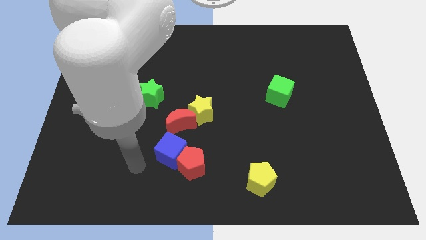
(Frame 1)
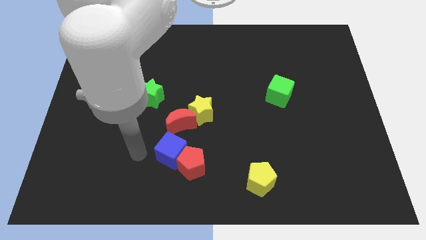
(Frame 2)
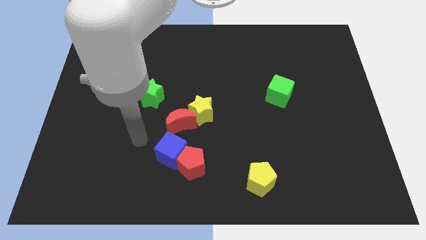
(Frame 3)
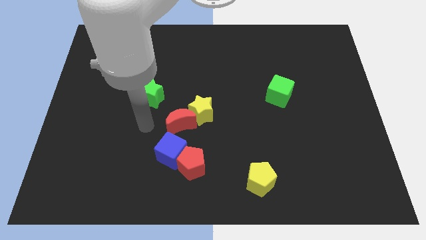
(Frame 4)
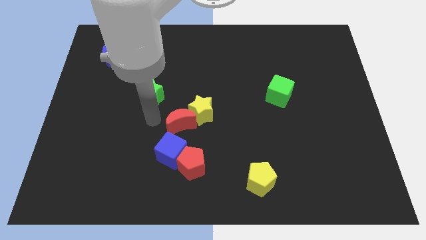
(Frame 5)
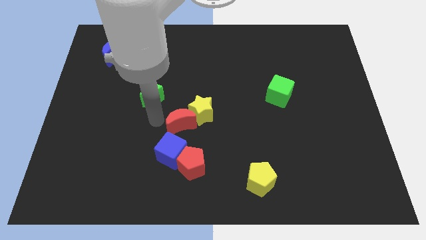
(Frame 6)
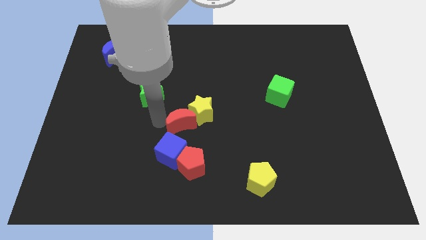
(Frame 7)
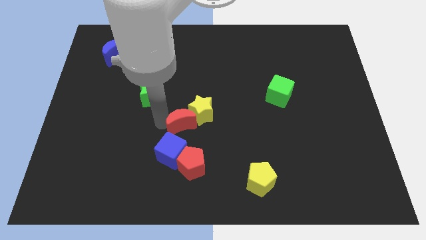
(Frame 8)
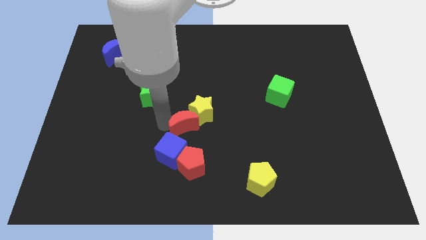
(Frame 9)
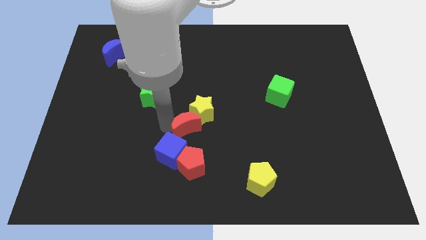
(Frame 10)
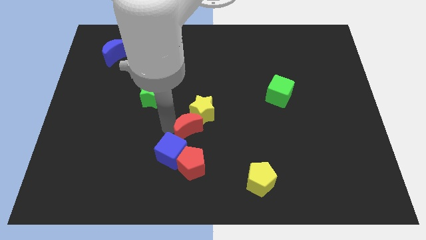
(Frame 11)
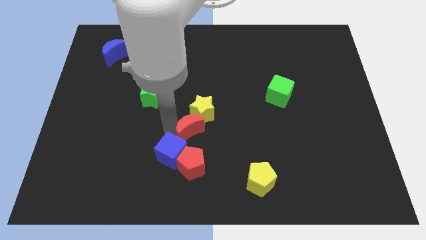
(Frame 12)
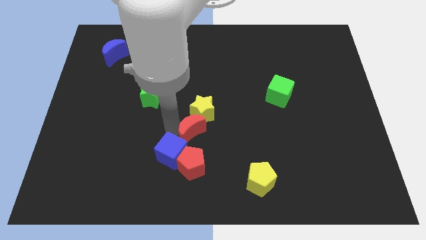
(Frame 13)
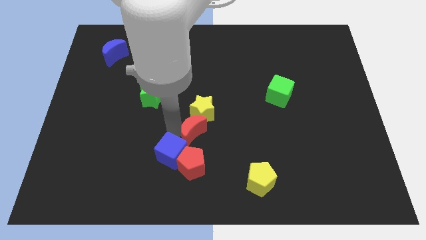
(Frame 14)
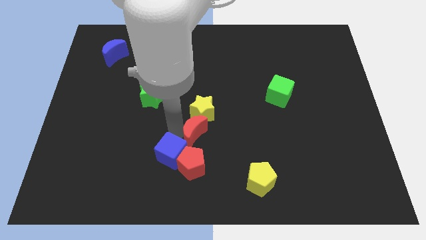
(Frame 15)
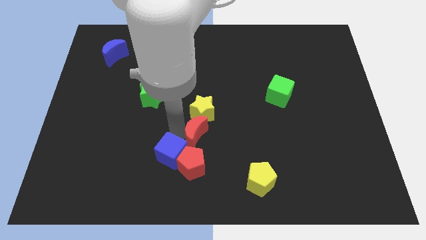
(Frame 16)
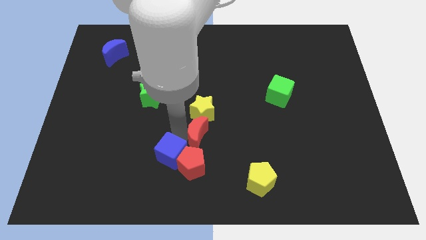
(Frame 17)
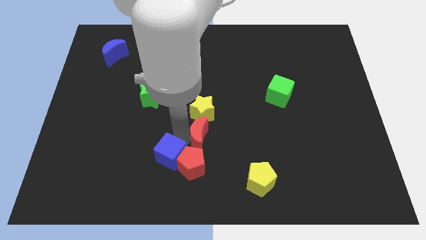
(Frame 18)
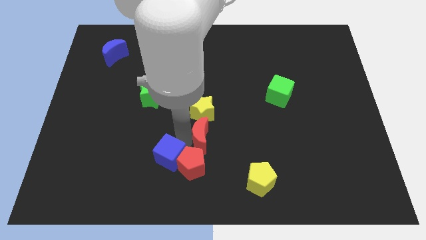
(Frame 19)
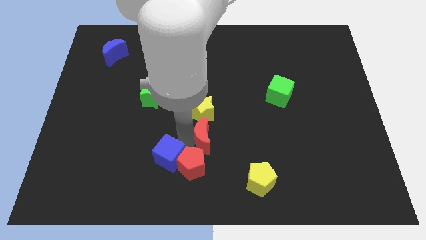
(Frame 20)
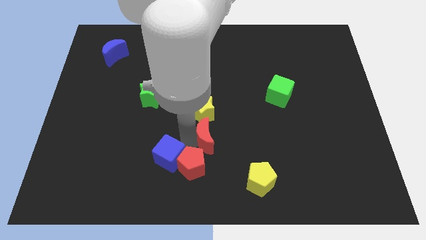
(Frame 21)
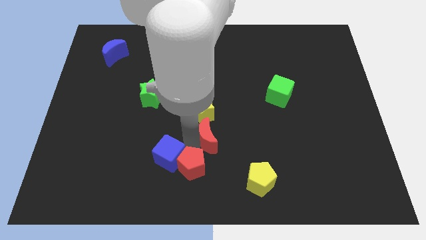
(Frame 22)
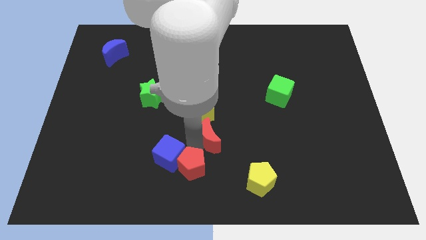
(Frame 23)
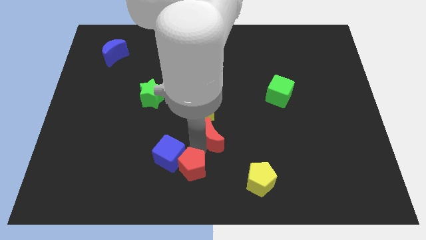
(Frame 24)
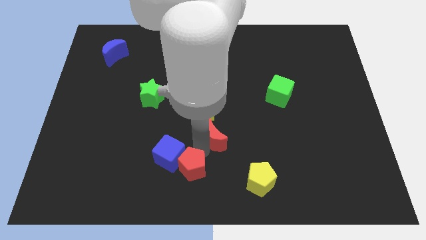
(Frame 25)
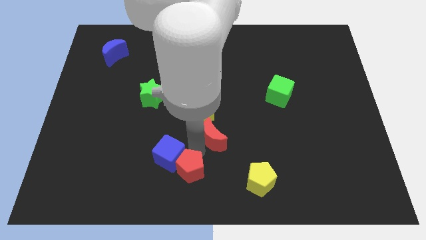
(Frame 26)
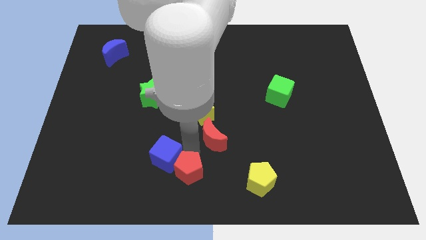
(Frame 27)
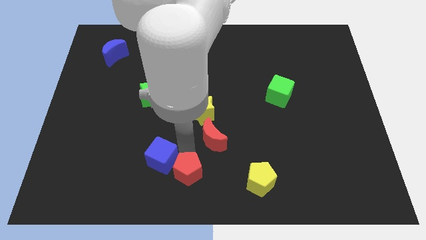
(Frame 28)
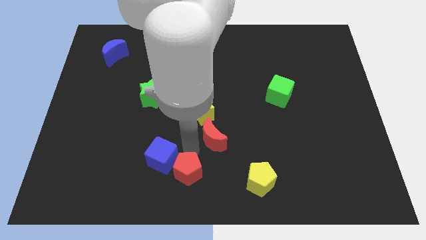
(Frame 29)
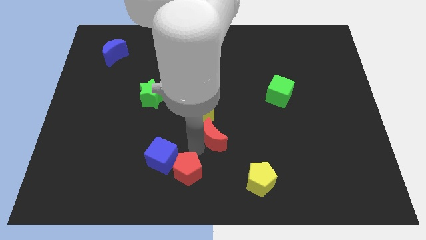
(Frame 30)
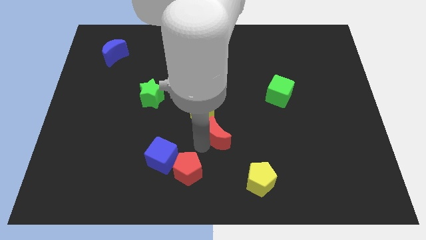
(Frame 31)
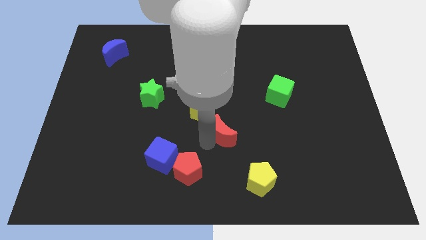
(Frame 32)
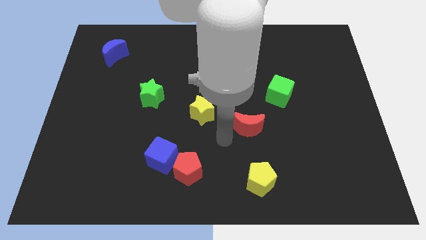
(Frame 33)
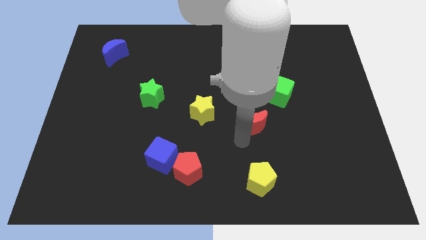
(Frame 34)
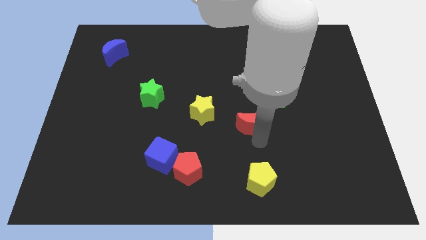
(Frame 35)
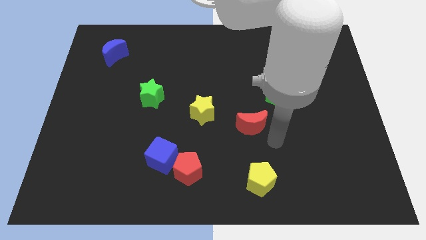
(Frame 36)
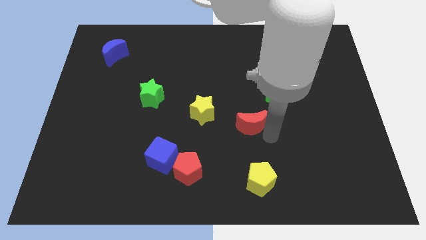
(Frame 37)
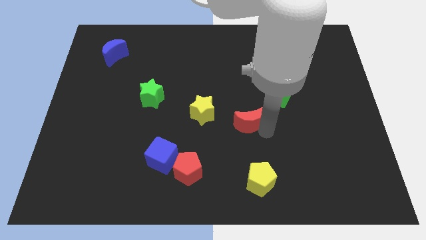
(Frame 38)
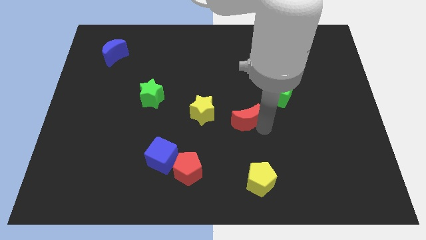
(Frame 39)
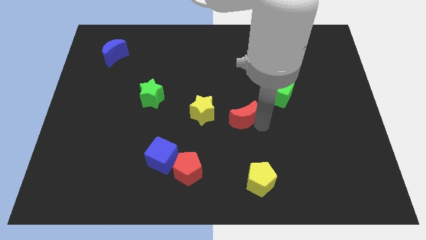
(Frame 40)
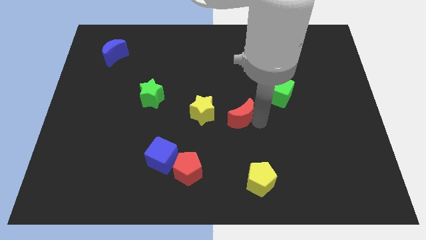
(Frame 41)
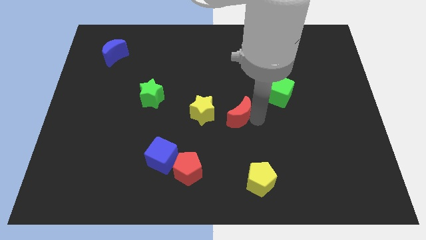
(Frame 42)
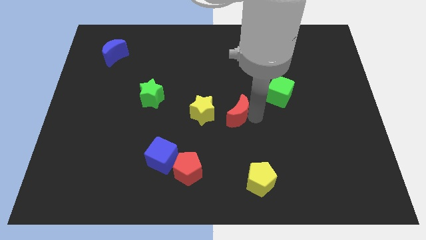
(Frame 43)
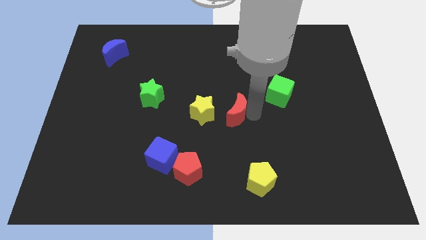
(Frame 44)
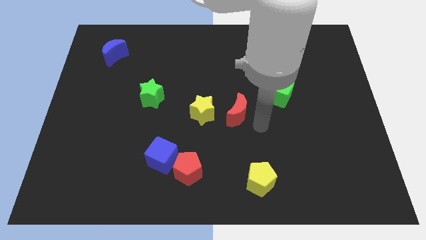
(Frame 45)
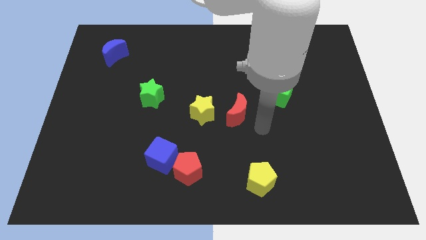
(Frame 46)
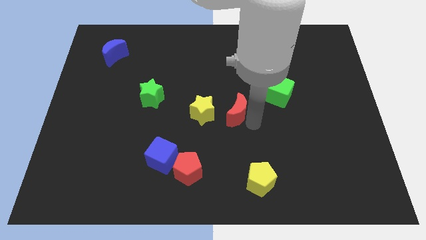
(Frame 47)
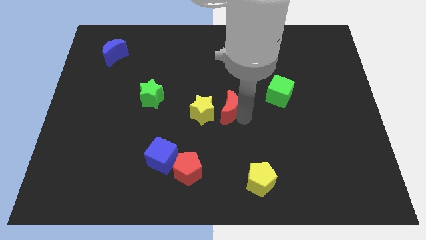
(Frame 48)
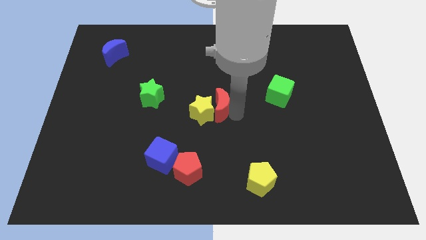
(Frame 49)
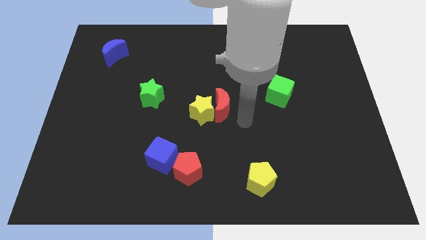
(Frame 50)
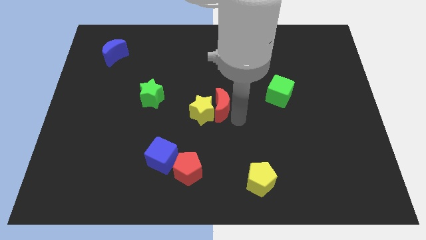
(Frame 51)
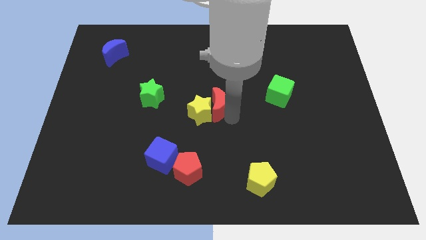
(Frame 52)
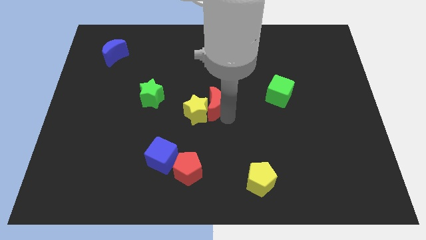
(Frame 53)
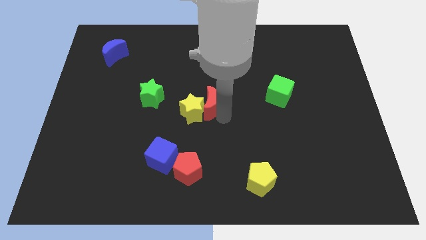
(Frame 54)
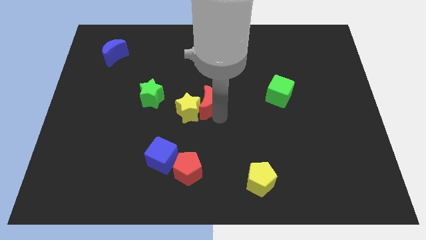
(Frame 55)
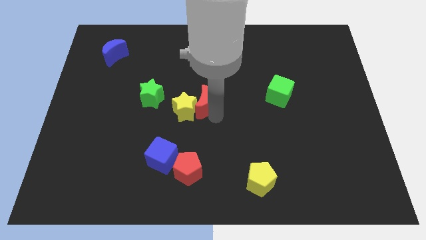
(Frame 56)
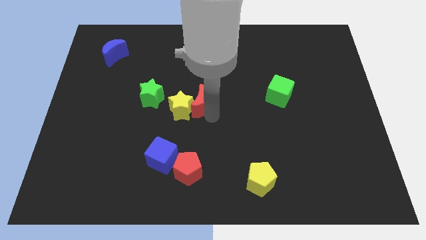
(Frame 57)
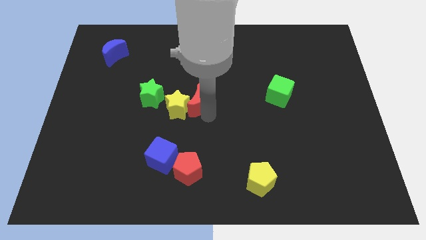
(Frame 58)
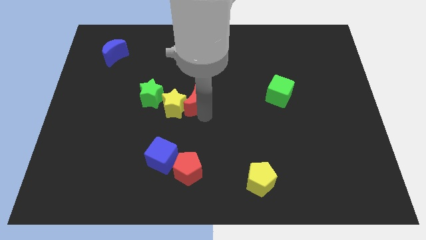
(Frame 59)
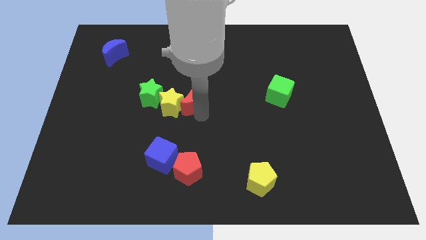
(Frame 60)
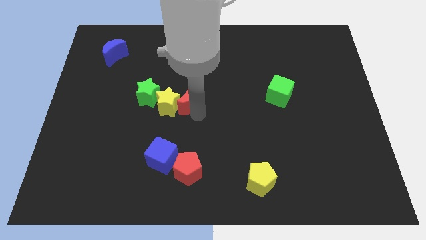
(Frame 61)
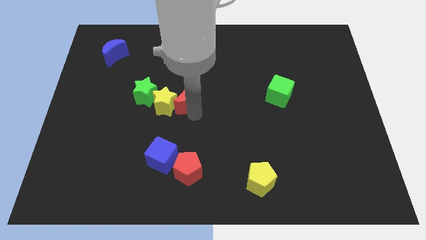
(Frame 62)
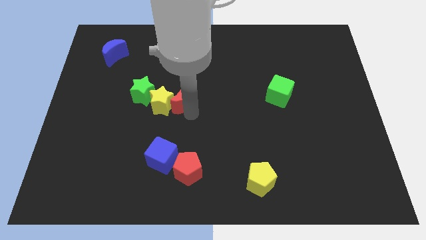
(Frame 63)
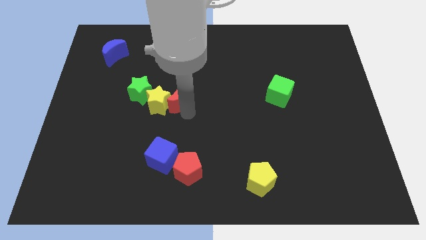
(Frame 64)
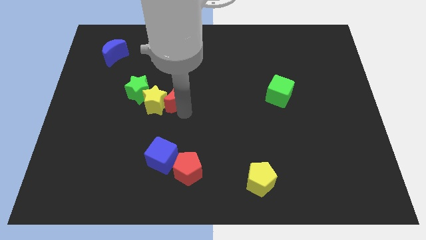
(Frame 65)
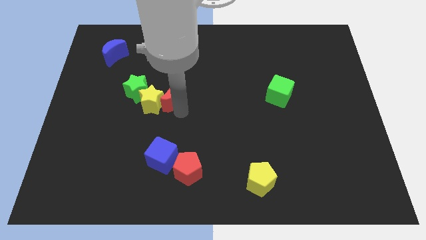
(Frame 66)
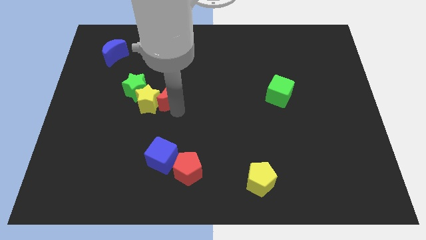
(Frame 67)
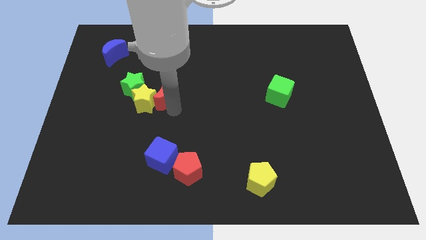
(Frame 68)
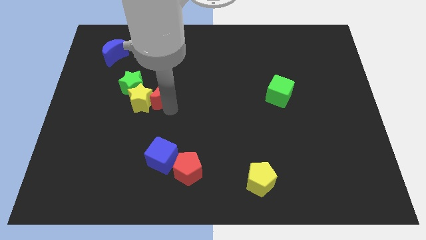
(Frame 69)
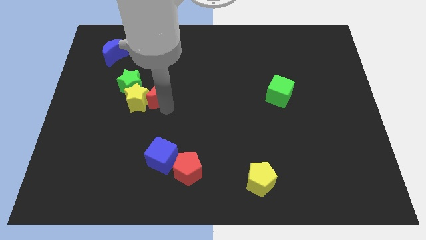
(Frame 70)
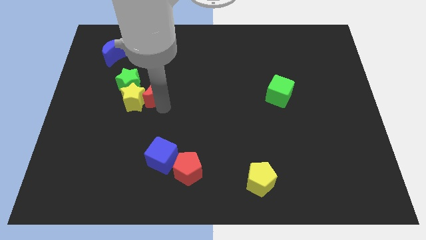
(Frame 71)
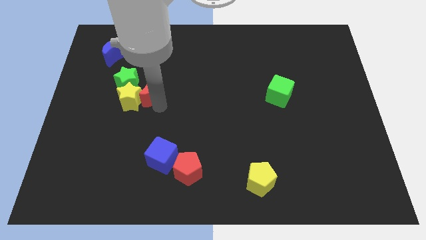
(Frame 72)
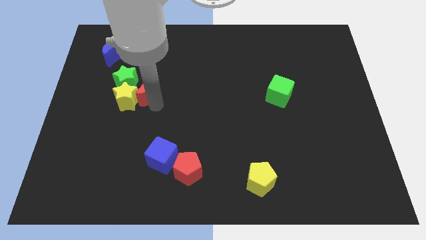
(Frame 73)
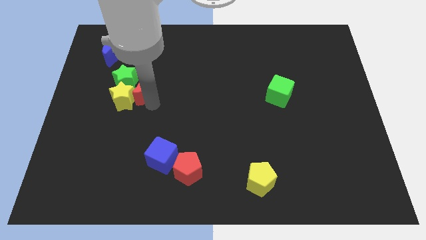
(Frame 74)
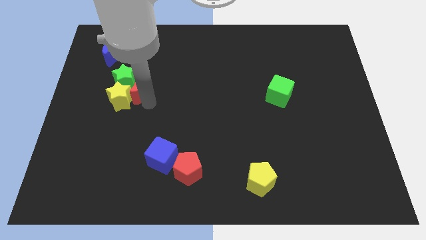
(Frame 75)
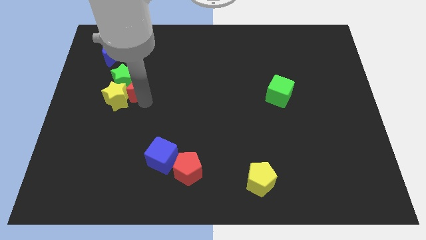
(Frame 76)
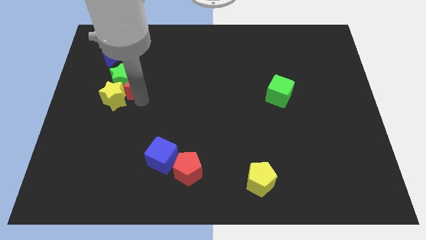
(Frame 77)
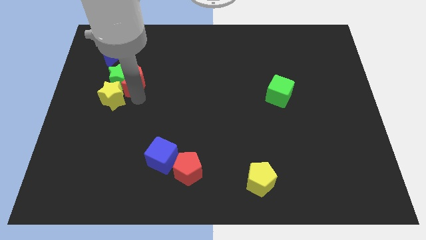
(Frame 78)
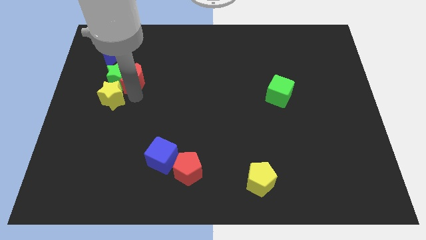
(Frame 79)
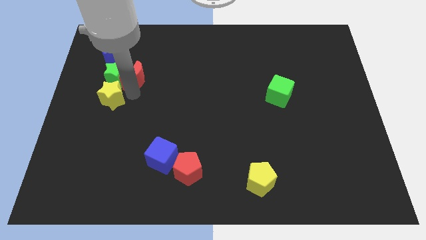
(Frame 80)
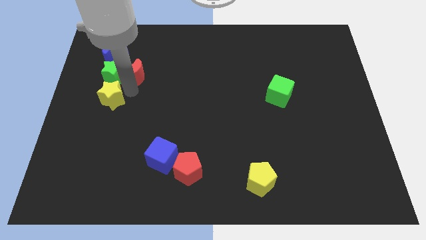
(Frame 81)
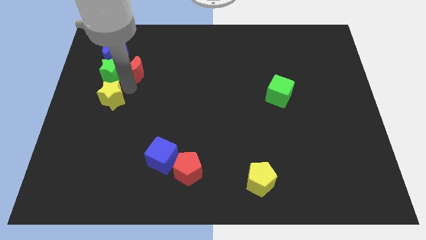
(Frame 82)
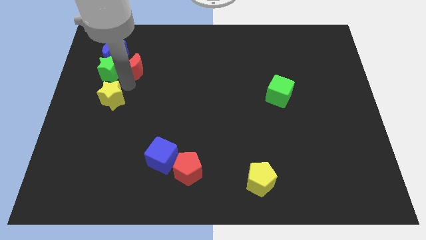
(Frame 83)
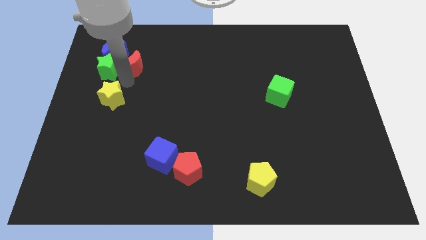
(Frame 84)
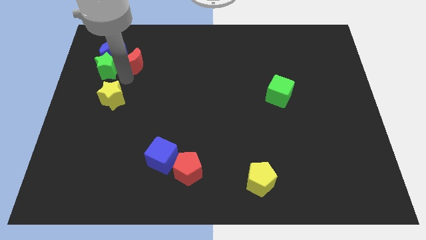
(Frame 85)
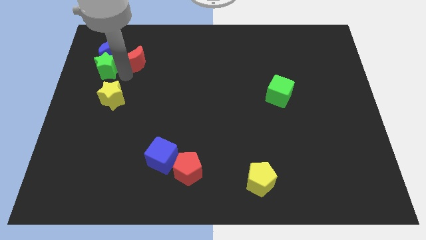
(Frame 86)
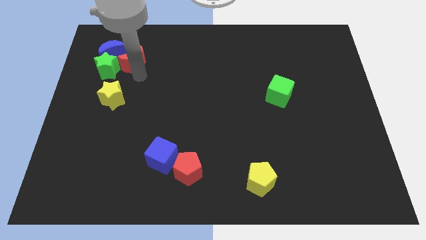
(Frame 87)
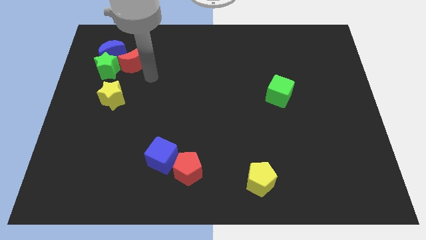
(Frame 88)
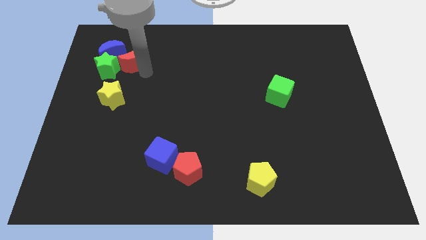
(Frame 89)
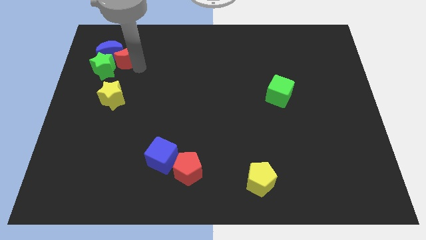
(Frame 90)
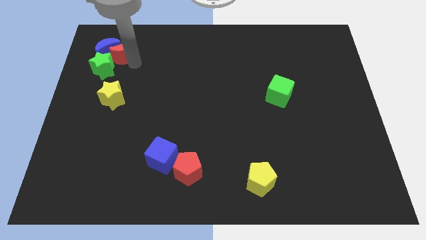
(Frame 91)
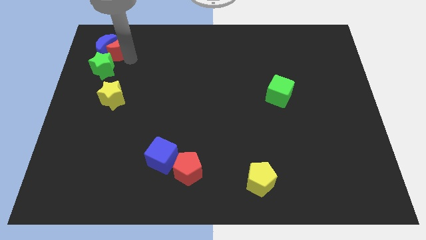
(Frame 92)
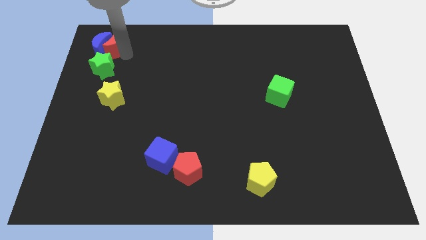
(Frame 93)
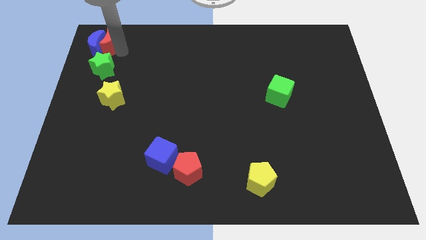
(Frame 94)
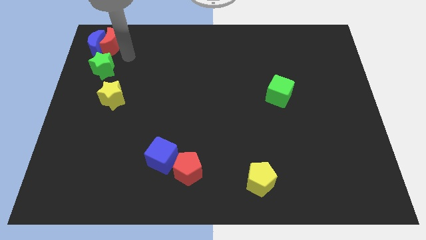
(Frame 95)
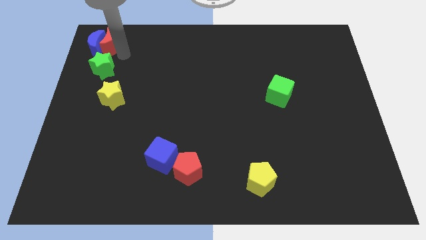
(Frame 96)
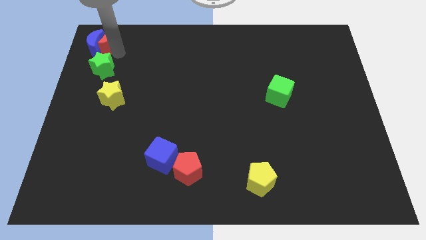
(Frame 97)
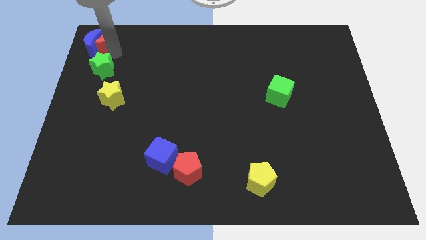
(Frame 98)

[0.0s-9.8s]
put the red moon to the top left
